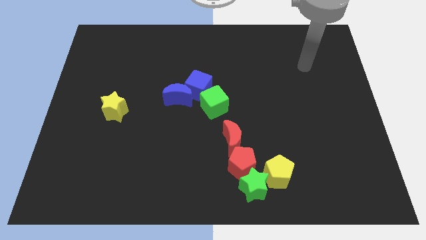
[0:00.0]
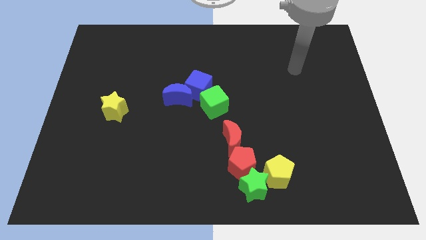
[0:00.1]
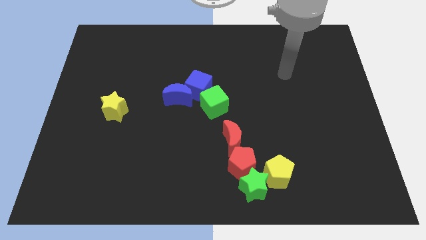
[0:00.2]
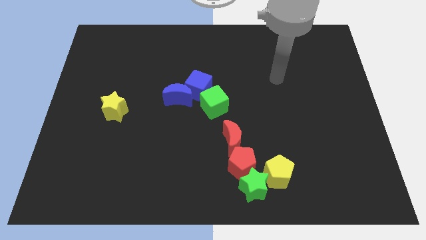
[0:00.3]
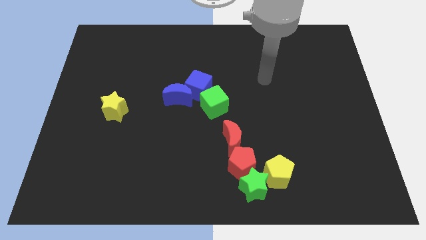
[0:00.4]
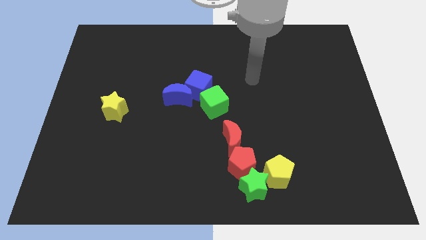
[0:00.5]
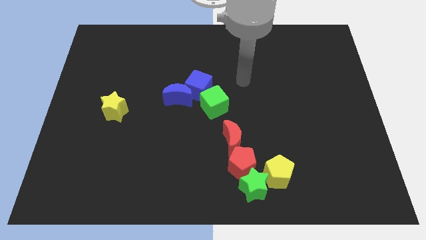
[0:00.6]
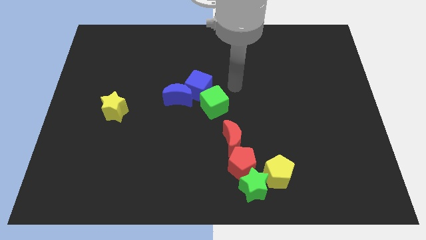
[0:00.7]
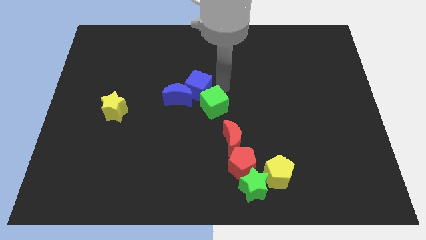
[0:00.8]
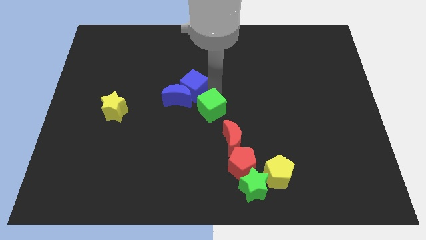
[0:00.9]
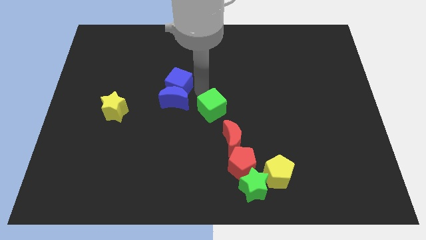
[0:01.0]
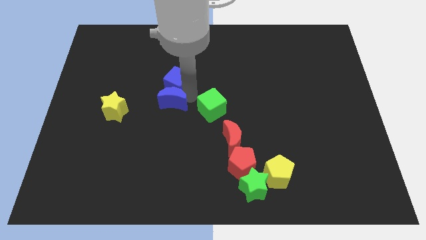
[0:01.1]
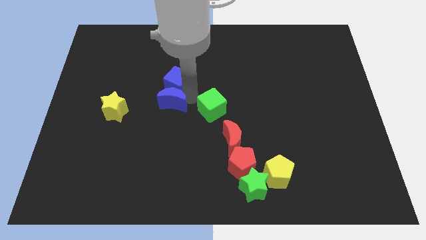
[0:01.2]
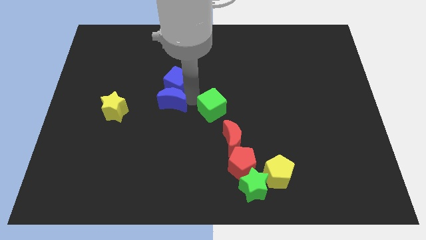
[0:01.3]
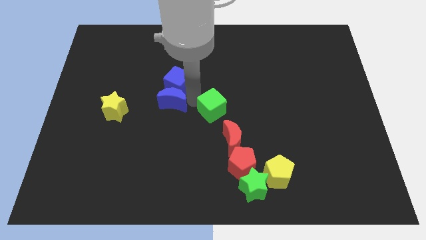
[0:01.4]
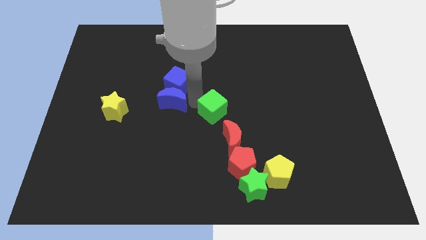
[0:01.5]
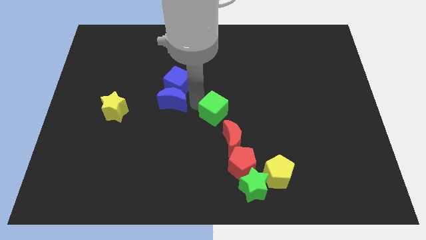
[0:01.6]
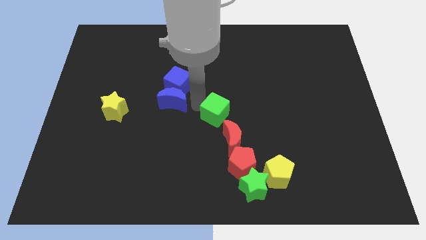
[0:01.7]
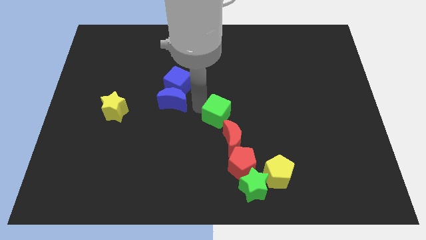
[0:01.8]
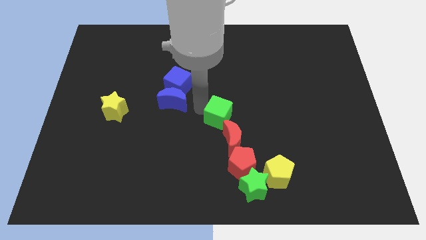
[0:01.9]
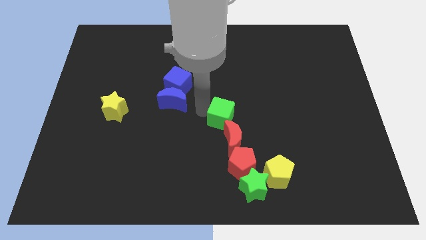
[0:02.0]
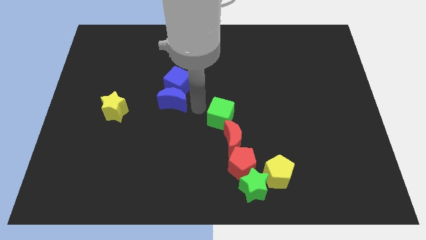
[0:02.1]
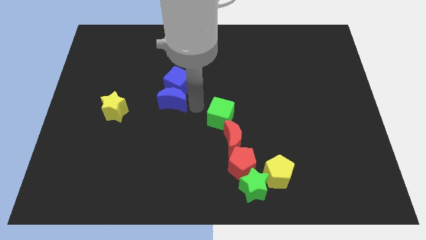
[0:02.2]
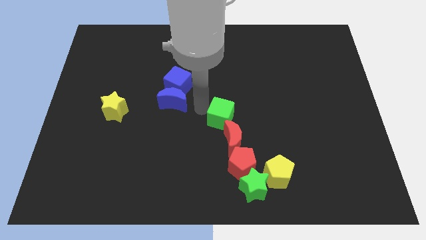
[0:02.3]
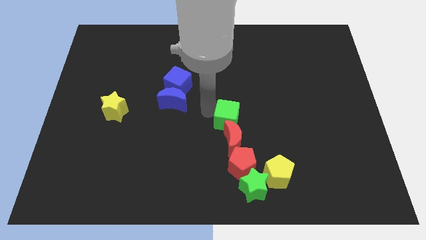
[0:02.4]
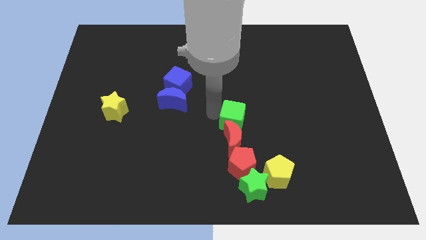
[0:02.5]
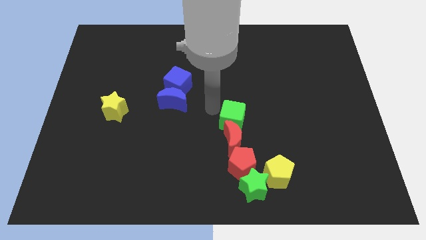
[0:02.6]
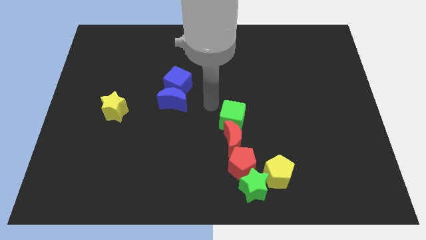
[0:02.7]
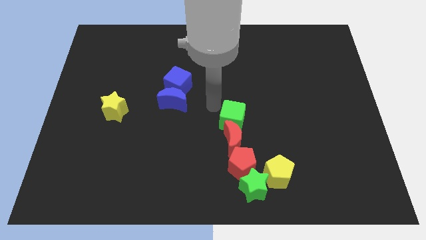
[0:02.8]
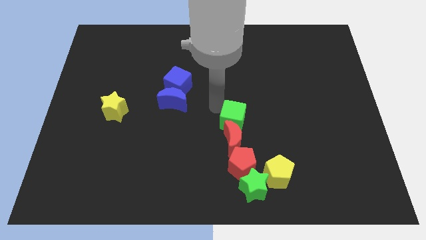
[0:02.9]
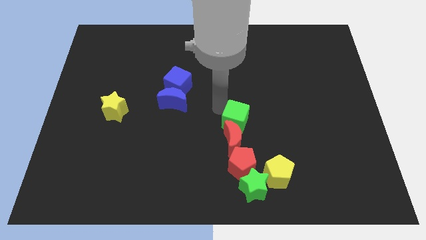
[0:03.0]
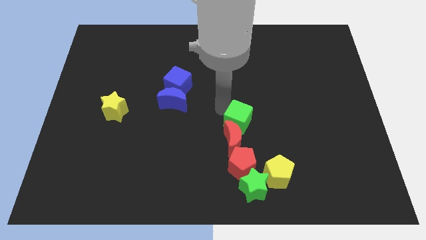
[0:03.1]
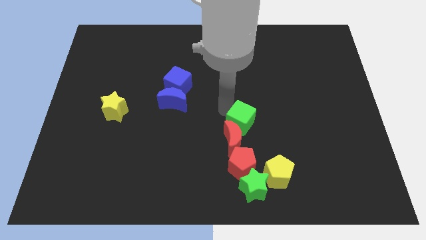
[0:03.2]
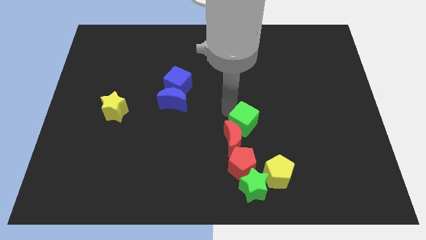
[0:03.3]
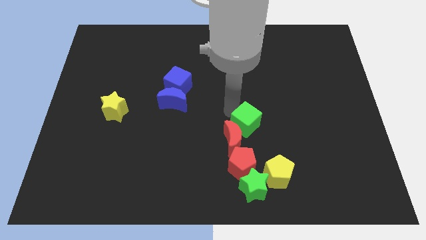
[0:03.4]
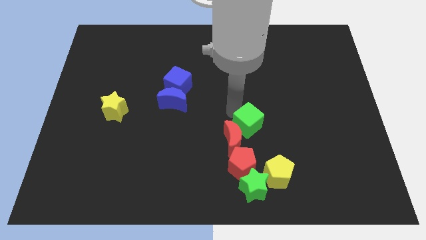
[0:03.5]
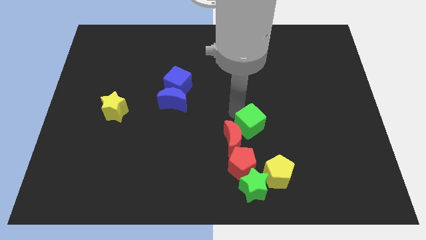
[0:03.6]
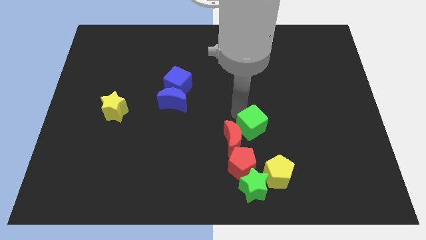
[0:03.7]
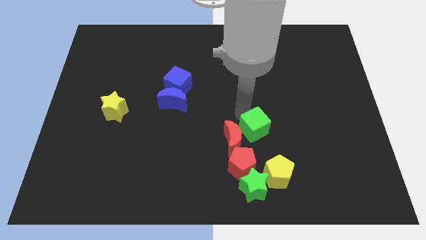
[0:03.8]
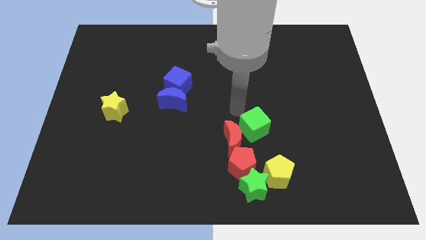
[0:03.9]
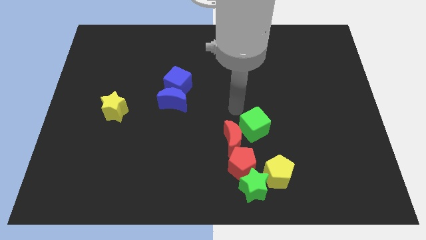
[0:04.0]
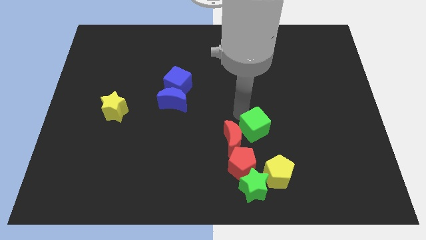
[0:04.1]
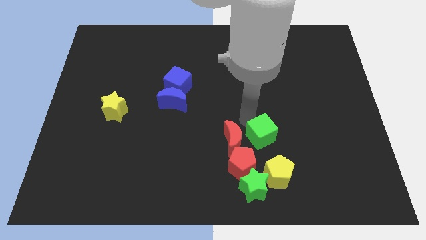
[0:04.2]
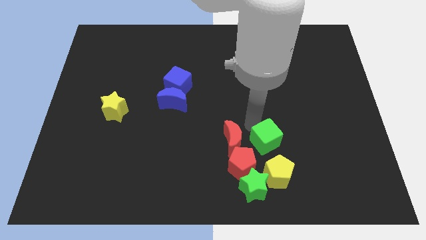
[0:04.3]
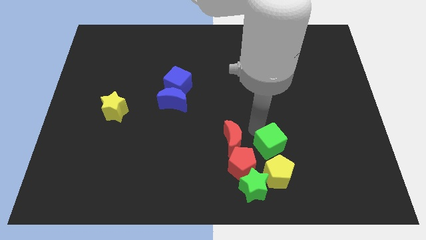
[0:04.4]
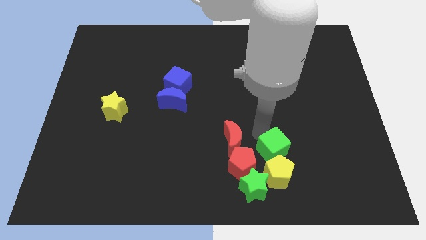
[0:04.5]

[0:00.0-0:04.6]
put the green cube just right of the red pentagon

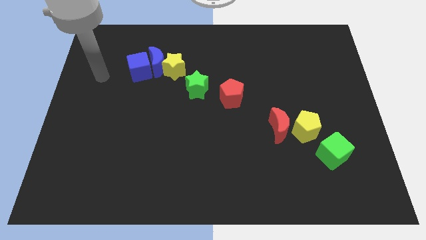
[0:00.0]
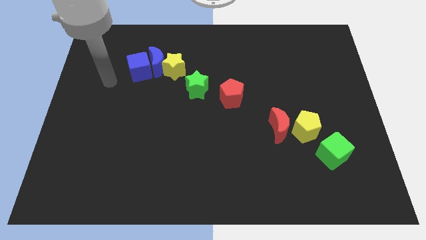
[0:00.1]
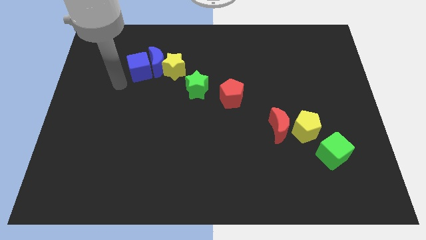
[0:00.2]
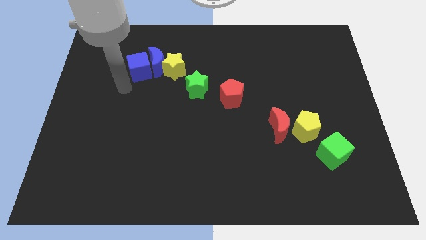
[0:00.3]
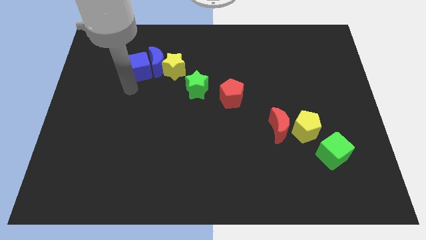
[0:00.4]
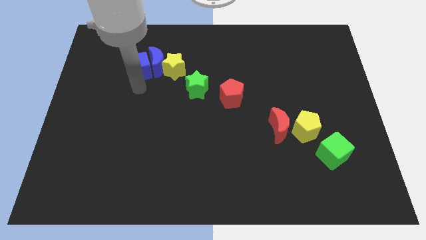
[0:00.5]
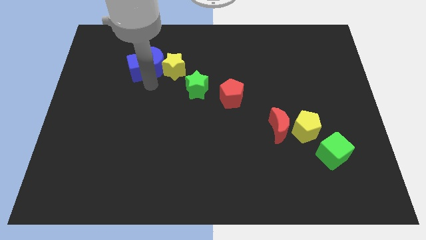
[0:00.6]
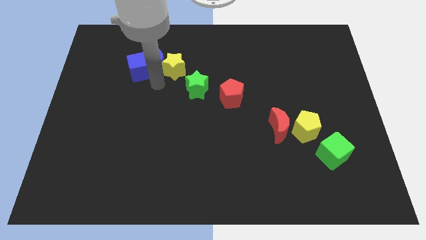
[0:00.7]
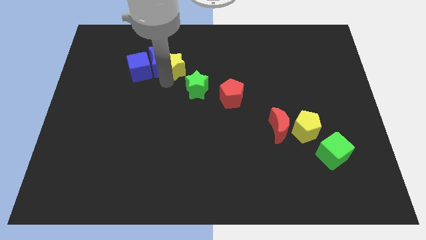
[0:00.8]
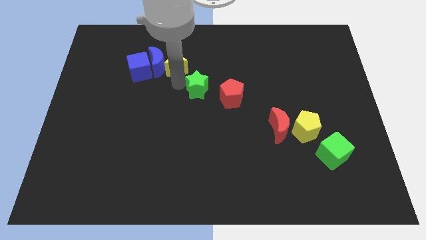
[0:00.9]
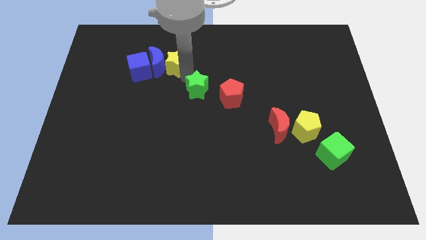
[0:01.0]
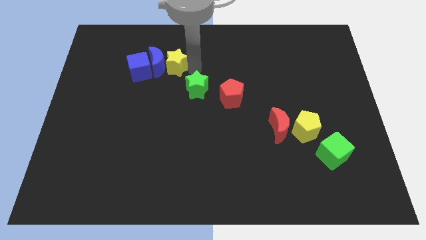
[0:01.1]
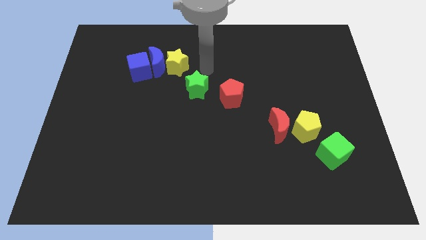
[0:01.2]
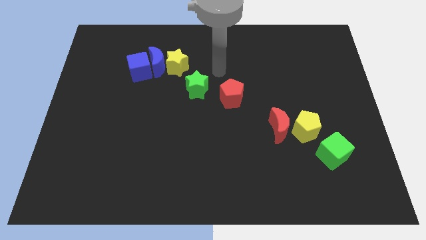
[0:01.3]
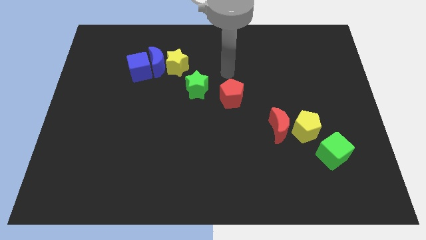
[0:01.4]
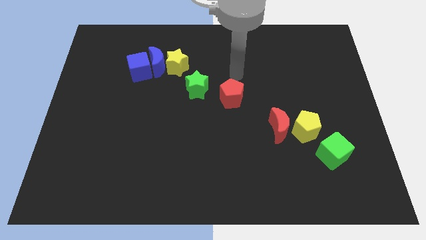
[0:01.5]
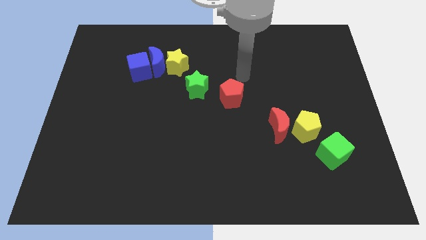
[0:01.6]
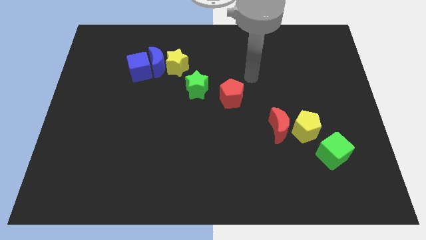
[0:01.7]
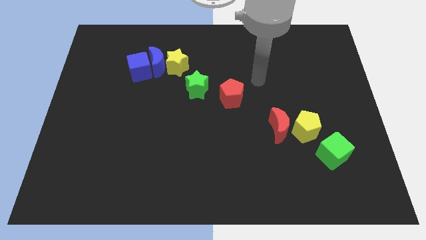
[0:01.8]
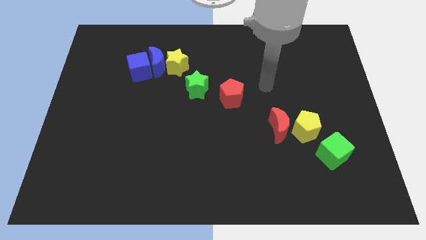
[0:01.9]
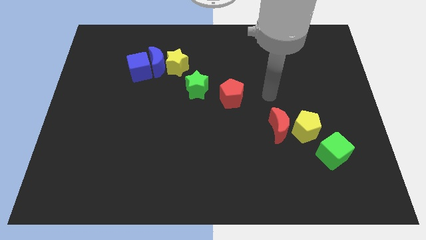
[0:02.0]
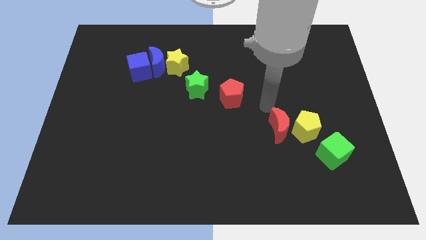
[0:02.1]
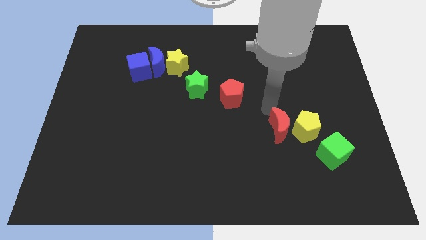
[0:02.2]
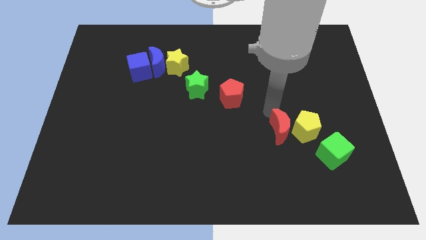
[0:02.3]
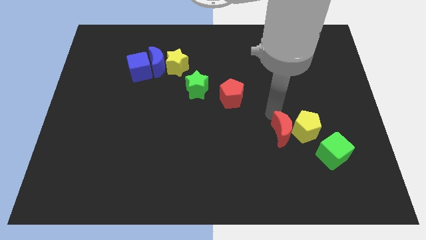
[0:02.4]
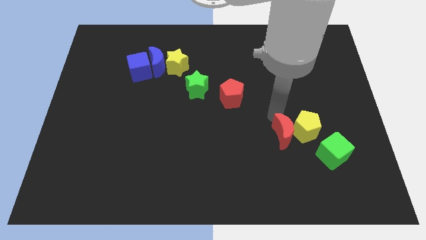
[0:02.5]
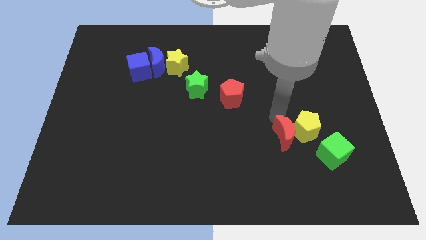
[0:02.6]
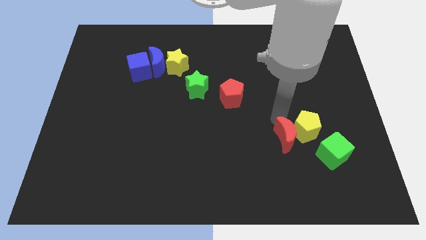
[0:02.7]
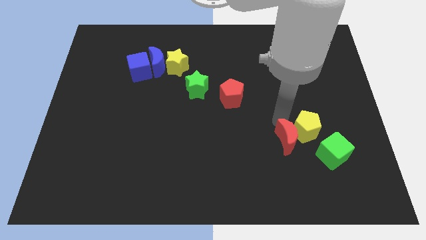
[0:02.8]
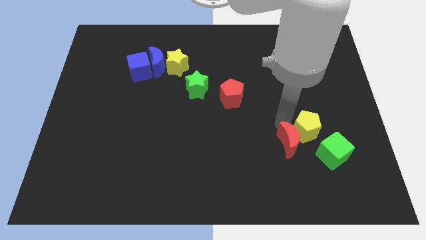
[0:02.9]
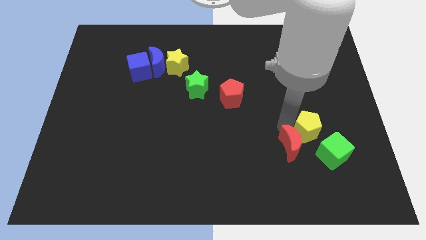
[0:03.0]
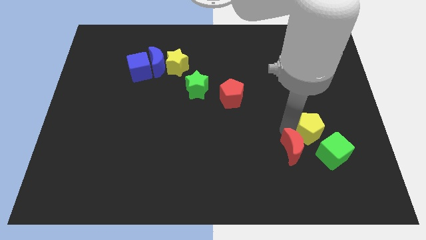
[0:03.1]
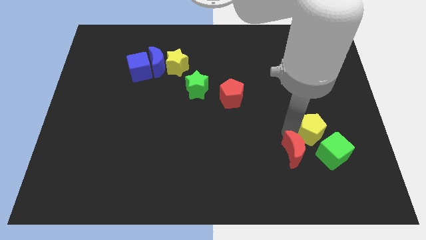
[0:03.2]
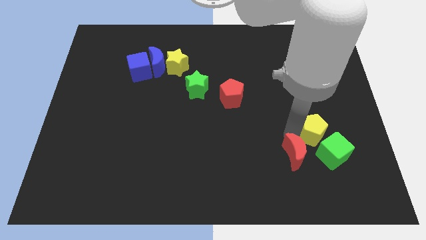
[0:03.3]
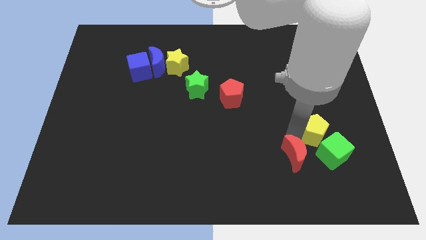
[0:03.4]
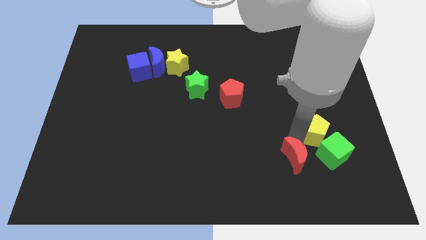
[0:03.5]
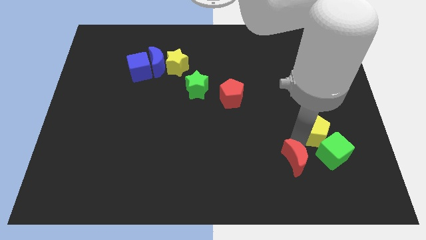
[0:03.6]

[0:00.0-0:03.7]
slide the red moon to the bottom left side of the green cube
